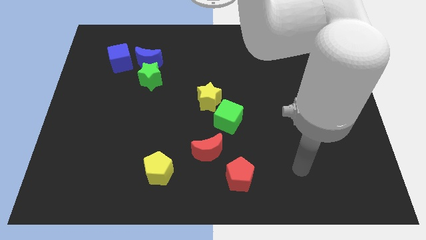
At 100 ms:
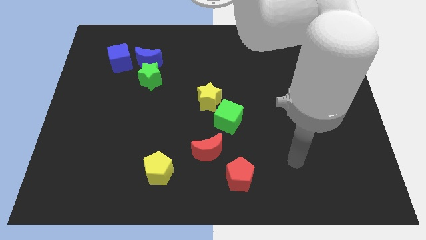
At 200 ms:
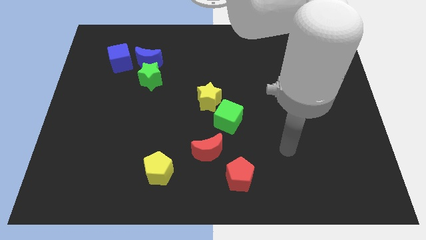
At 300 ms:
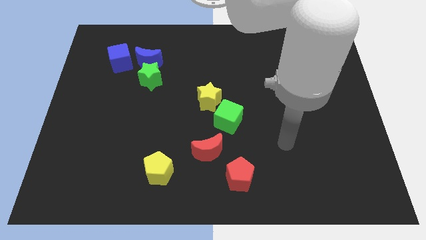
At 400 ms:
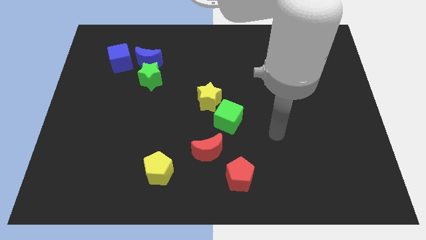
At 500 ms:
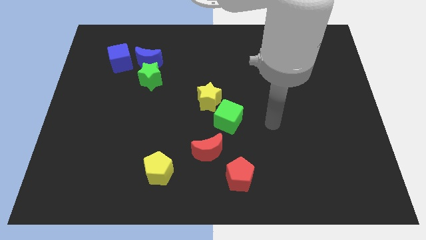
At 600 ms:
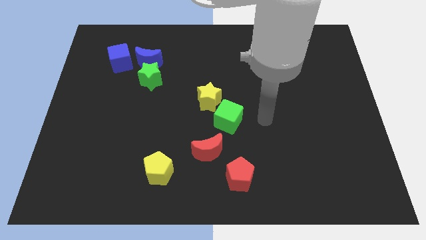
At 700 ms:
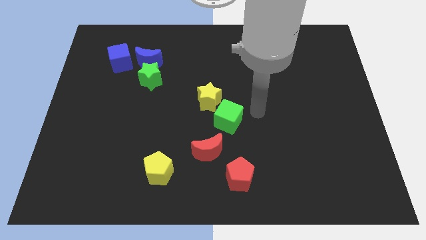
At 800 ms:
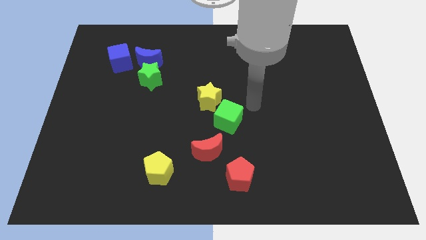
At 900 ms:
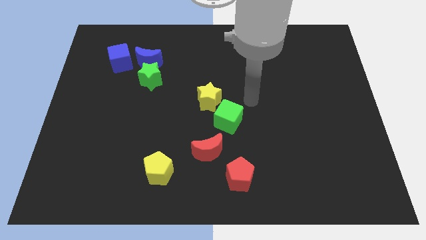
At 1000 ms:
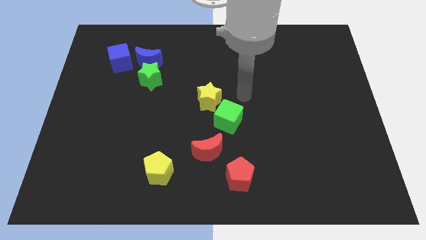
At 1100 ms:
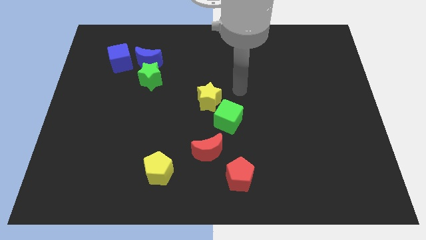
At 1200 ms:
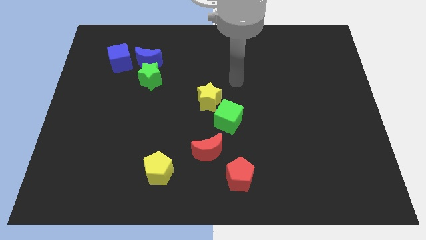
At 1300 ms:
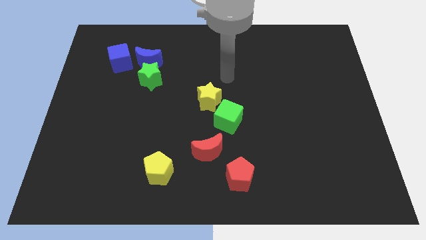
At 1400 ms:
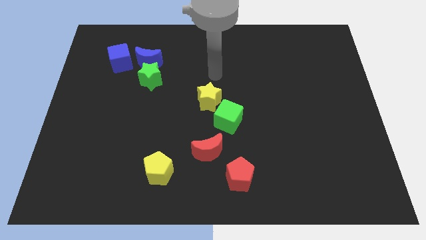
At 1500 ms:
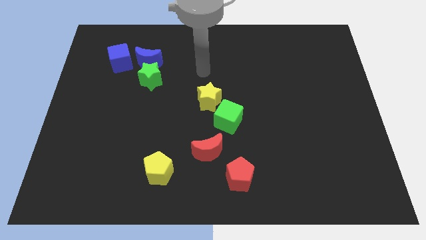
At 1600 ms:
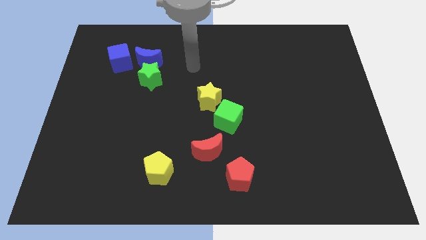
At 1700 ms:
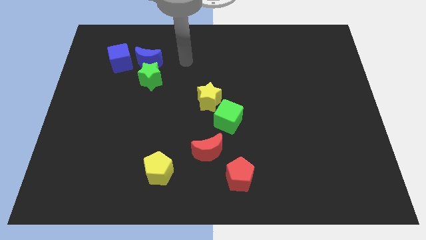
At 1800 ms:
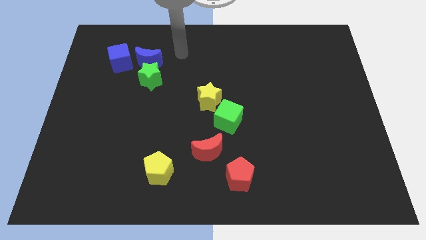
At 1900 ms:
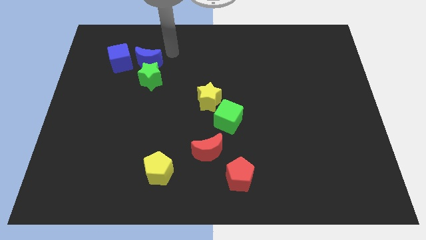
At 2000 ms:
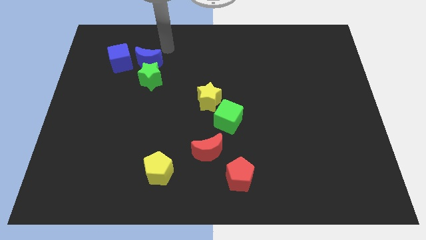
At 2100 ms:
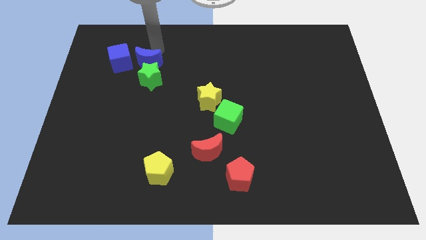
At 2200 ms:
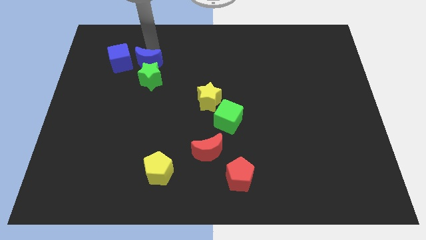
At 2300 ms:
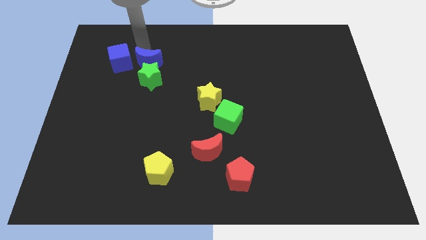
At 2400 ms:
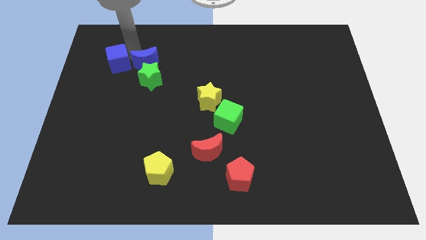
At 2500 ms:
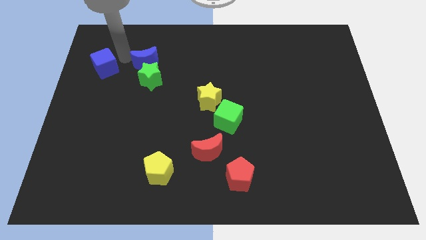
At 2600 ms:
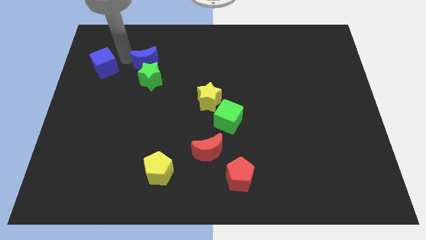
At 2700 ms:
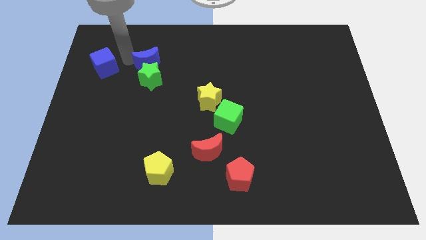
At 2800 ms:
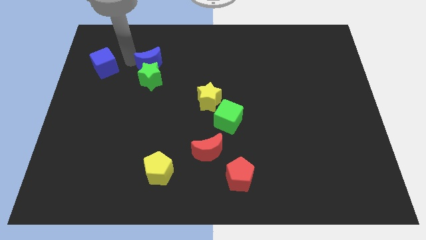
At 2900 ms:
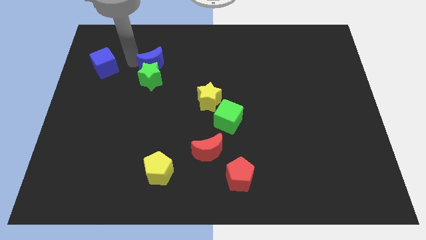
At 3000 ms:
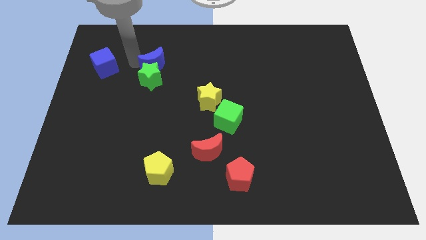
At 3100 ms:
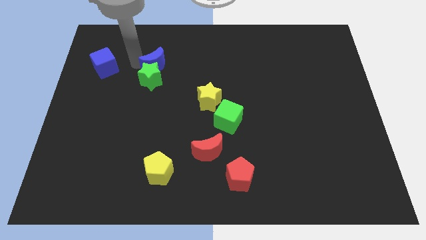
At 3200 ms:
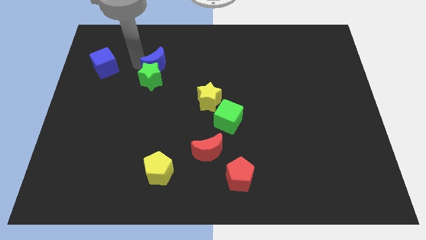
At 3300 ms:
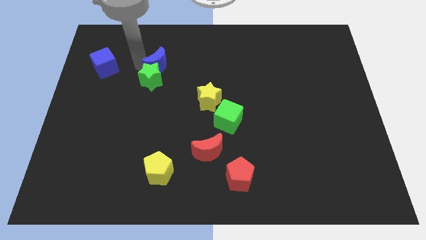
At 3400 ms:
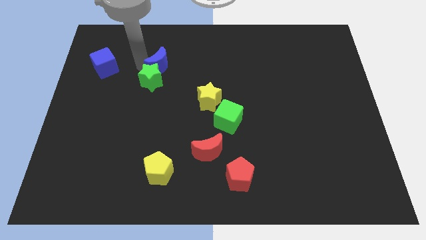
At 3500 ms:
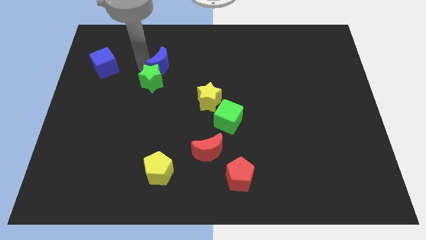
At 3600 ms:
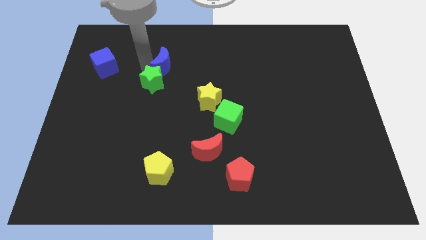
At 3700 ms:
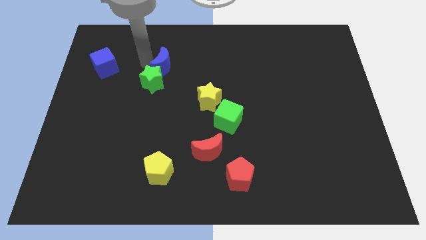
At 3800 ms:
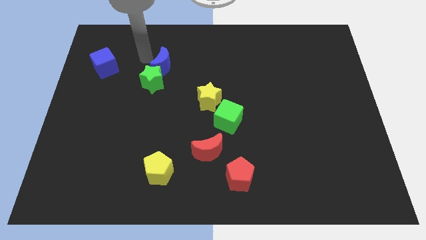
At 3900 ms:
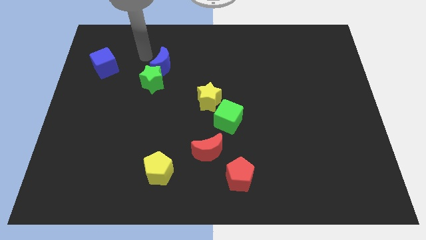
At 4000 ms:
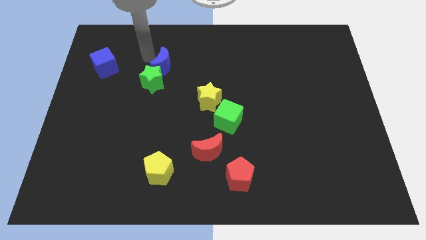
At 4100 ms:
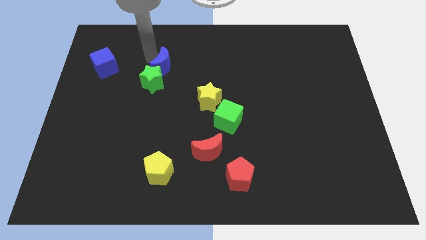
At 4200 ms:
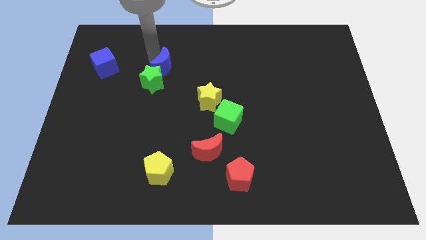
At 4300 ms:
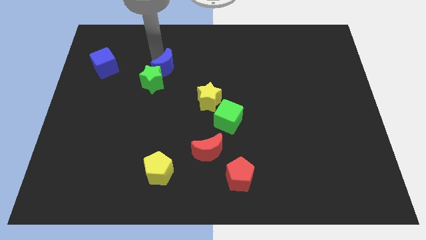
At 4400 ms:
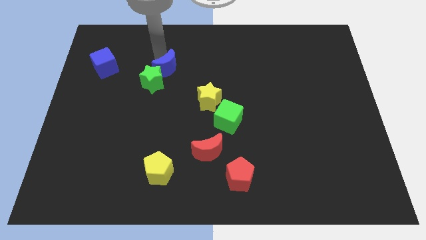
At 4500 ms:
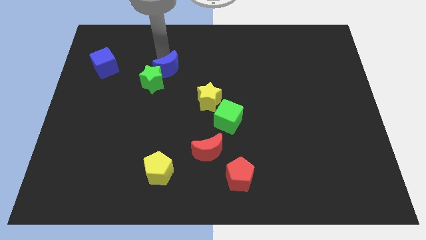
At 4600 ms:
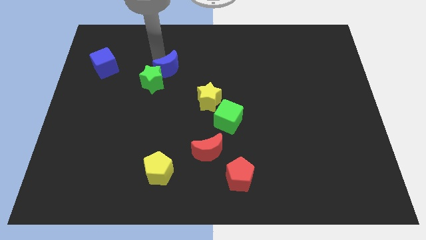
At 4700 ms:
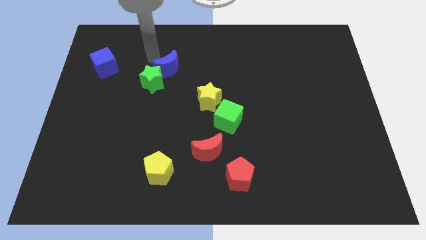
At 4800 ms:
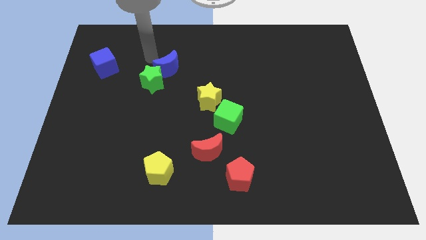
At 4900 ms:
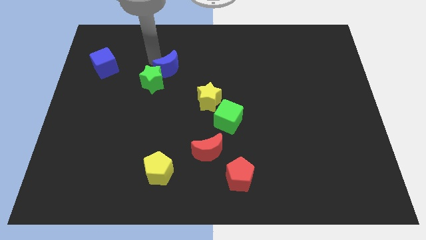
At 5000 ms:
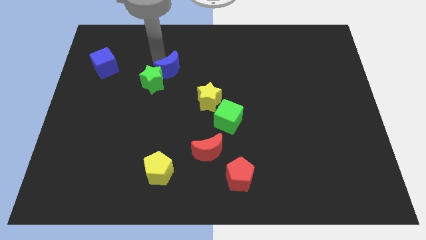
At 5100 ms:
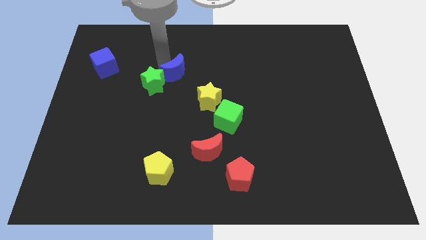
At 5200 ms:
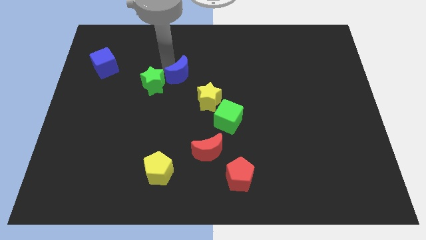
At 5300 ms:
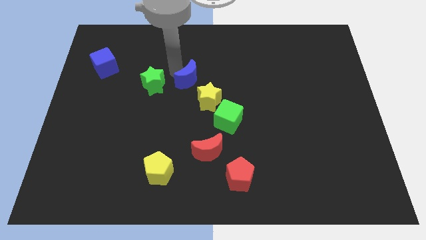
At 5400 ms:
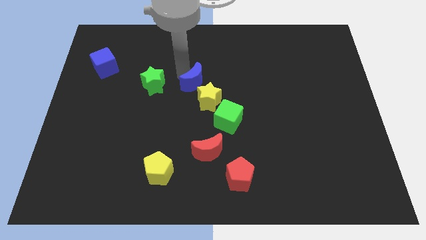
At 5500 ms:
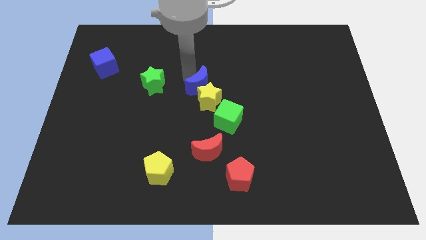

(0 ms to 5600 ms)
push the blue moon to the yellow star

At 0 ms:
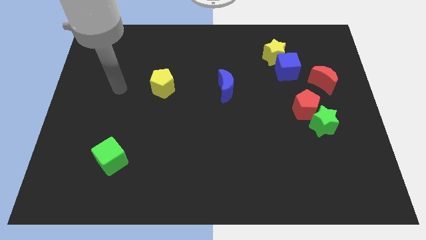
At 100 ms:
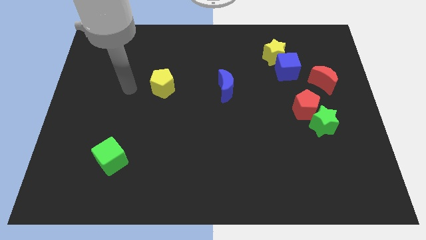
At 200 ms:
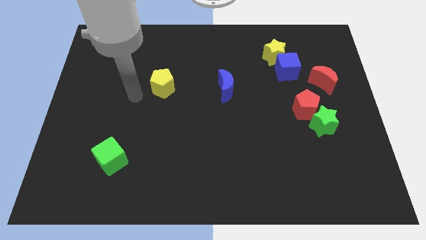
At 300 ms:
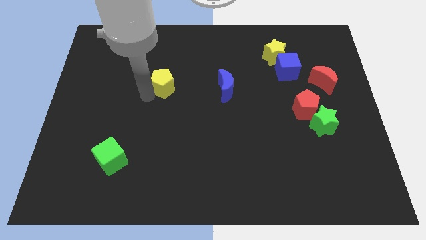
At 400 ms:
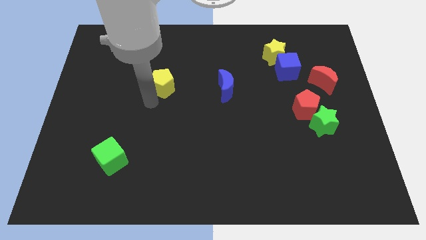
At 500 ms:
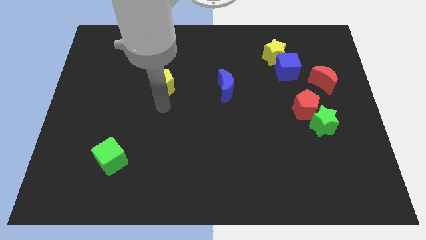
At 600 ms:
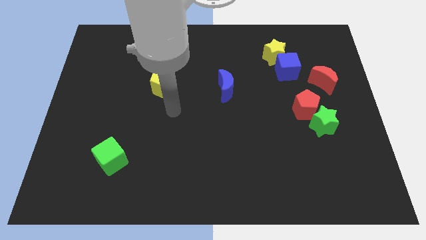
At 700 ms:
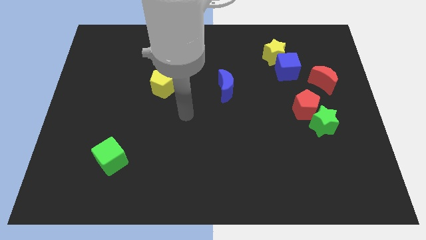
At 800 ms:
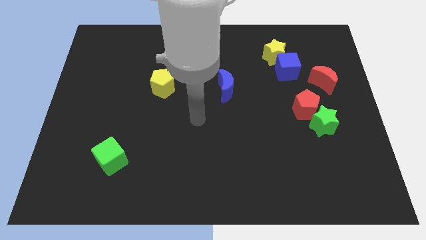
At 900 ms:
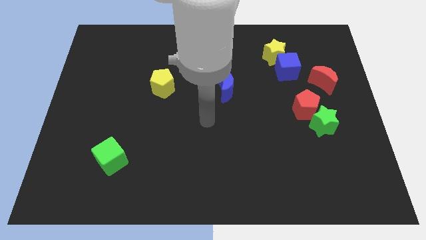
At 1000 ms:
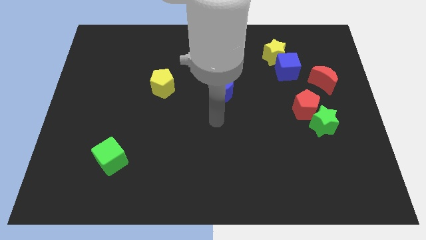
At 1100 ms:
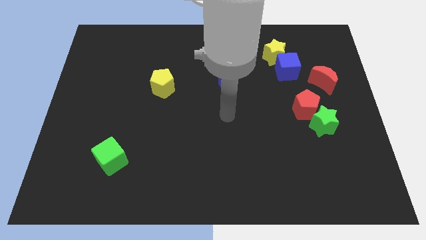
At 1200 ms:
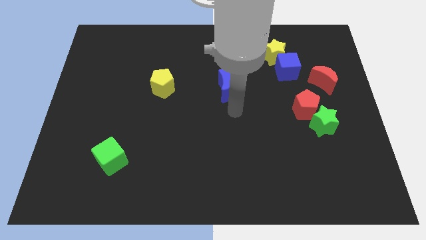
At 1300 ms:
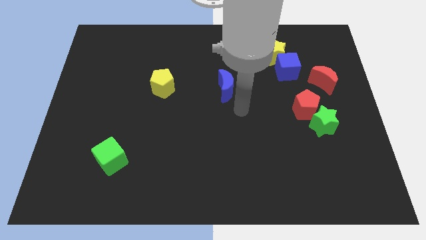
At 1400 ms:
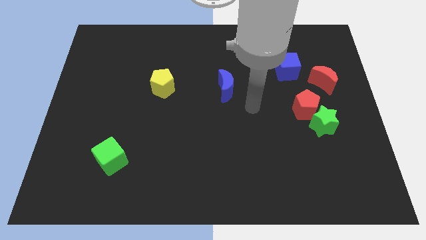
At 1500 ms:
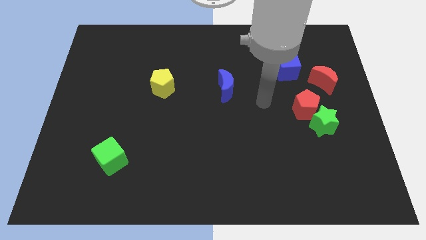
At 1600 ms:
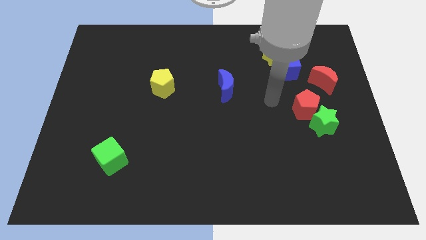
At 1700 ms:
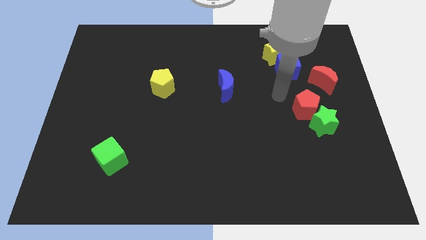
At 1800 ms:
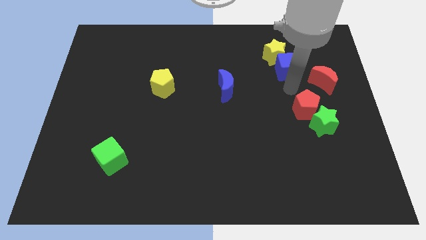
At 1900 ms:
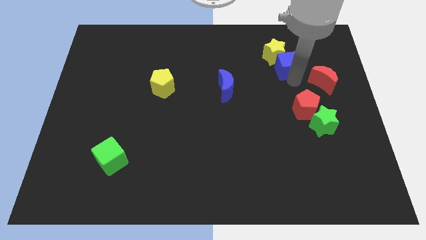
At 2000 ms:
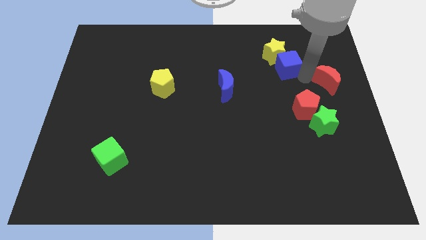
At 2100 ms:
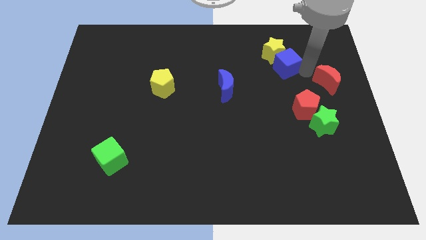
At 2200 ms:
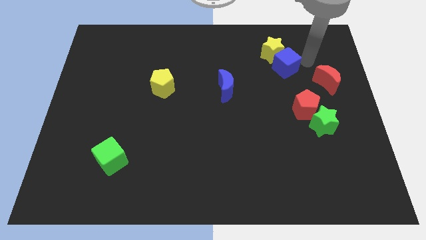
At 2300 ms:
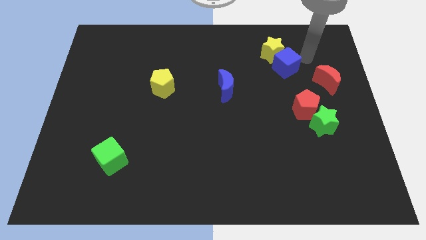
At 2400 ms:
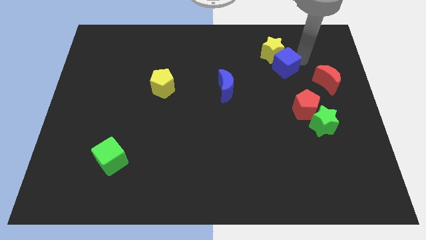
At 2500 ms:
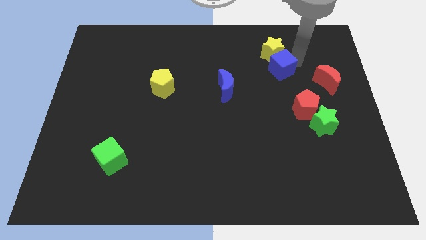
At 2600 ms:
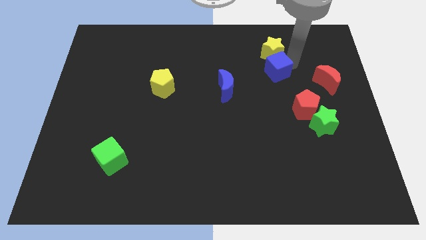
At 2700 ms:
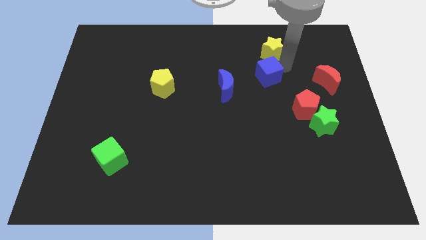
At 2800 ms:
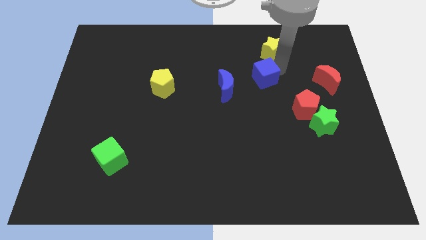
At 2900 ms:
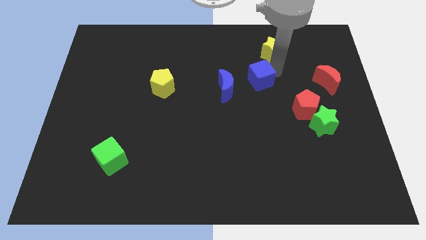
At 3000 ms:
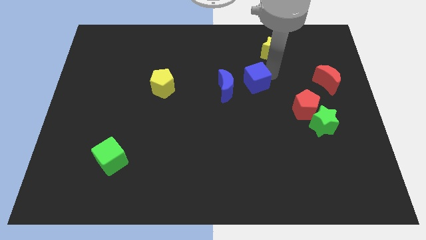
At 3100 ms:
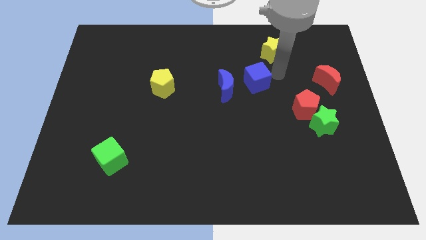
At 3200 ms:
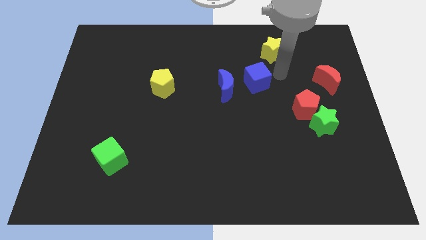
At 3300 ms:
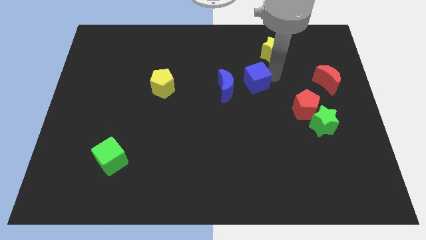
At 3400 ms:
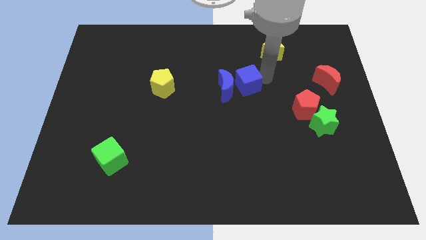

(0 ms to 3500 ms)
put the blue cube next to the blue moon
